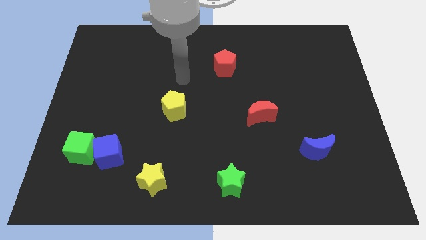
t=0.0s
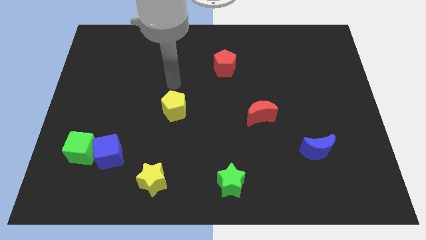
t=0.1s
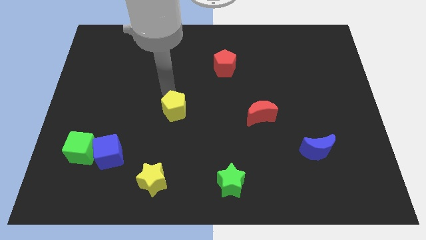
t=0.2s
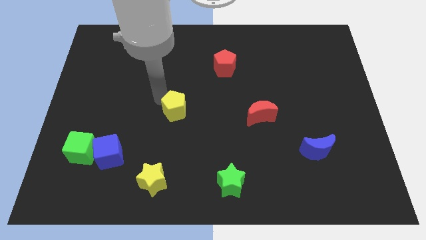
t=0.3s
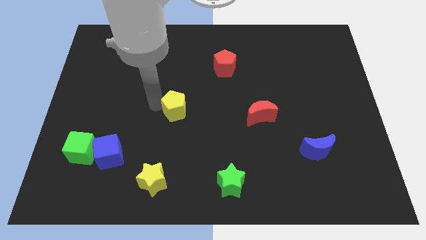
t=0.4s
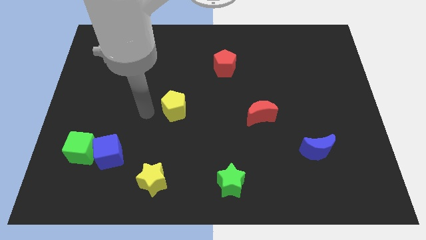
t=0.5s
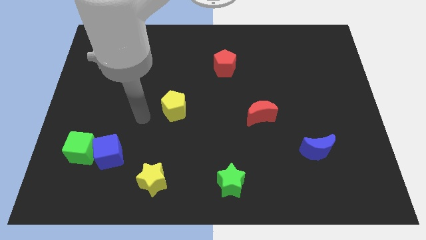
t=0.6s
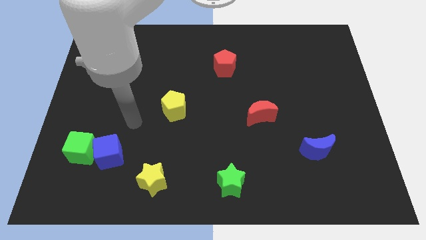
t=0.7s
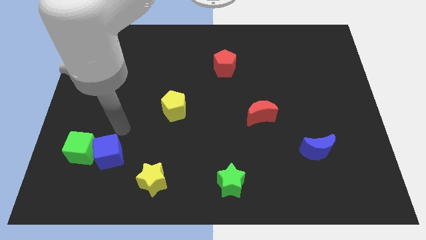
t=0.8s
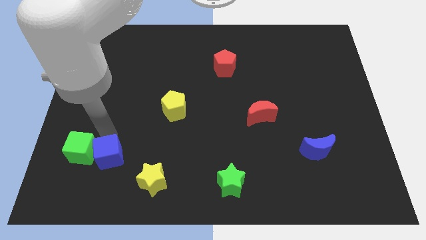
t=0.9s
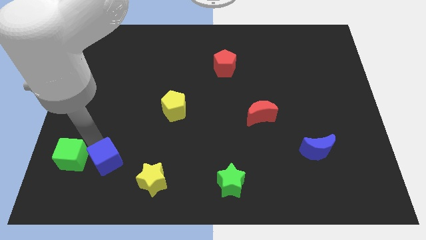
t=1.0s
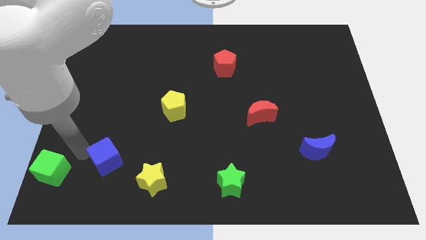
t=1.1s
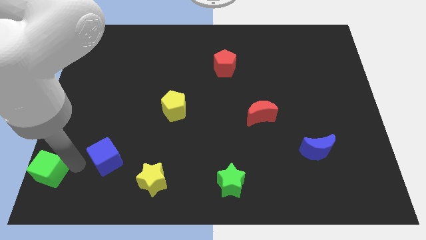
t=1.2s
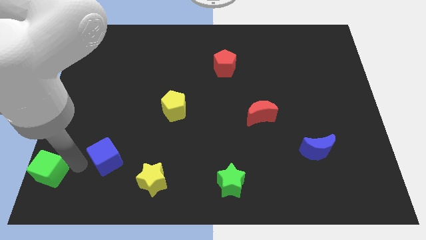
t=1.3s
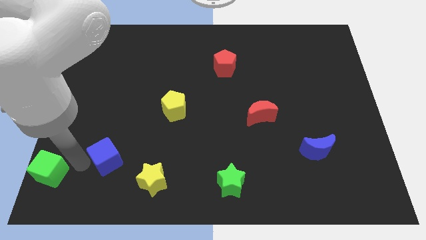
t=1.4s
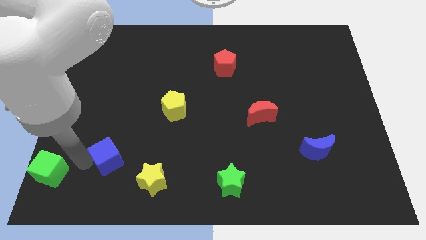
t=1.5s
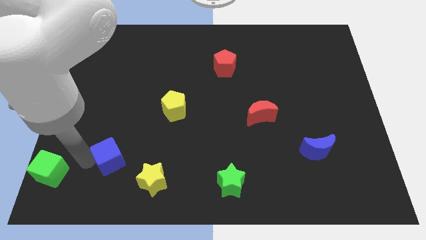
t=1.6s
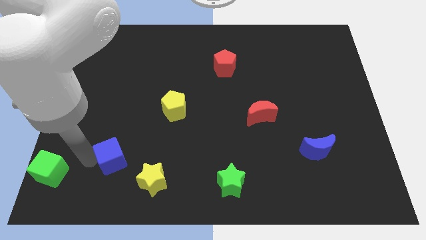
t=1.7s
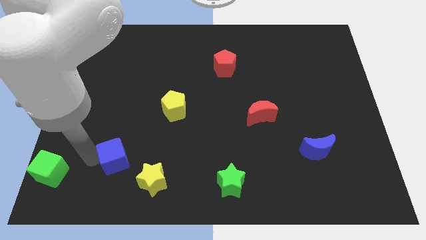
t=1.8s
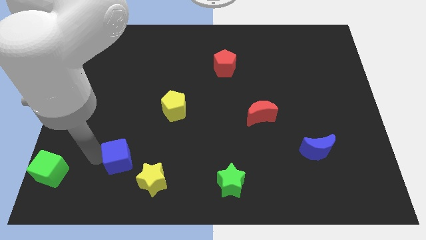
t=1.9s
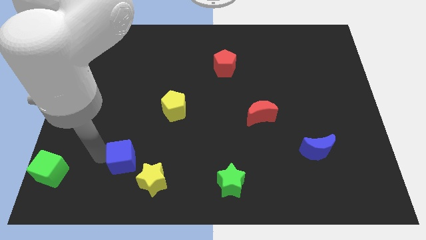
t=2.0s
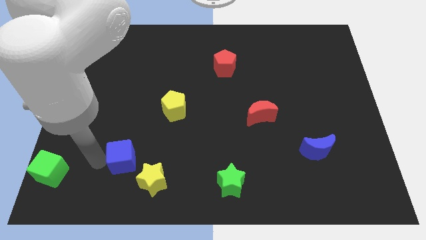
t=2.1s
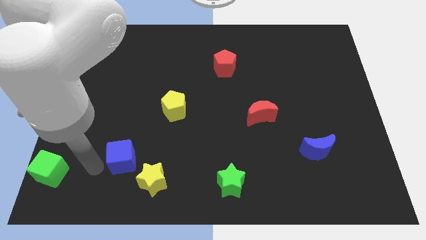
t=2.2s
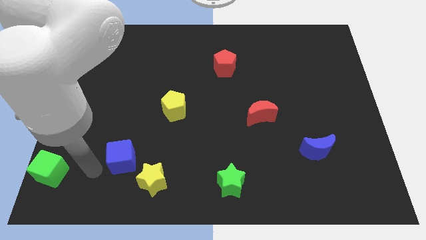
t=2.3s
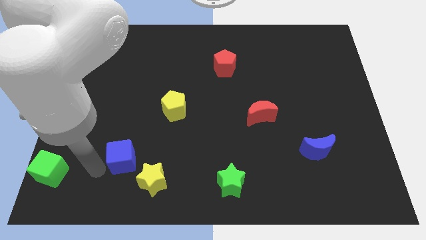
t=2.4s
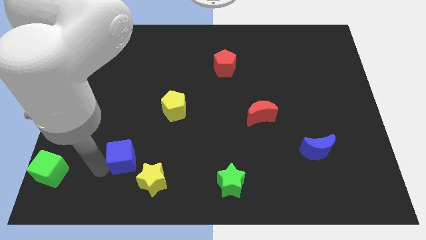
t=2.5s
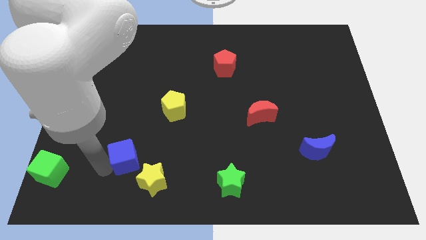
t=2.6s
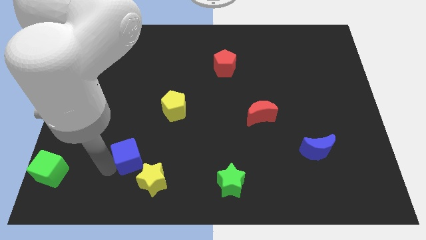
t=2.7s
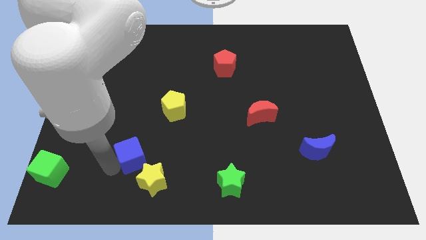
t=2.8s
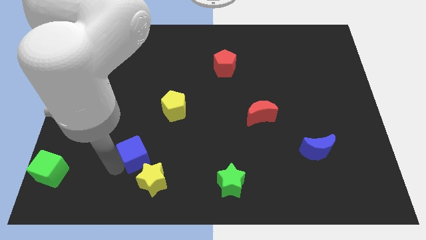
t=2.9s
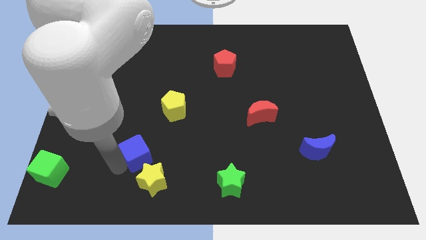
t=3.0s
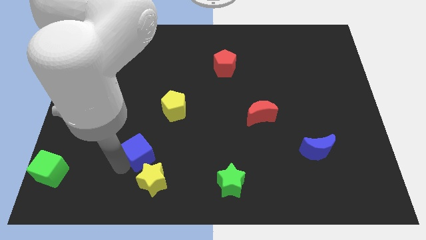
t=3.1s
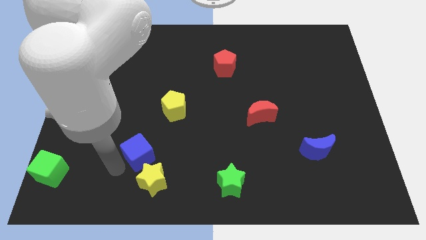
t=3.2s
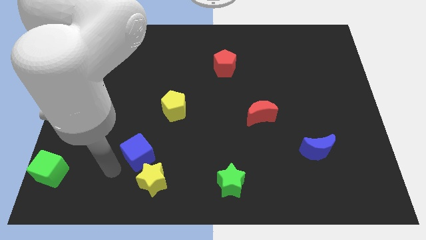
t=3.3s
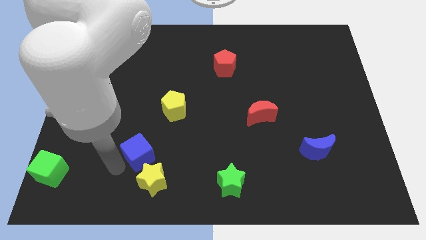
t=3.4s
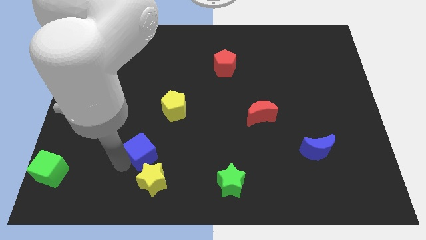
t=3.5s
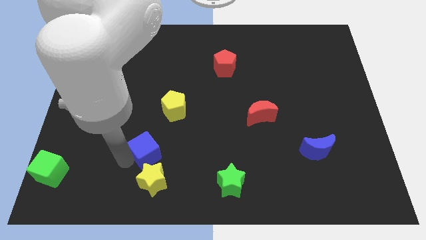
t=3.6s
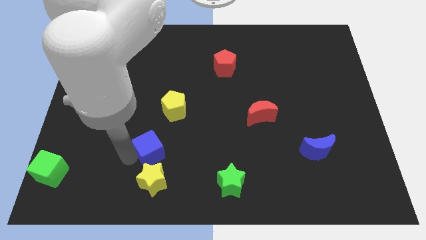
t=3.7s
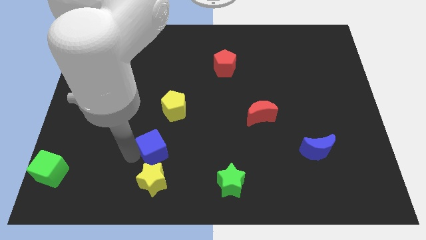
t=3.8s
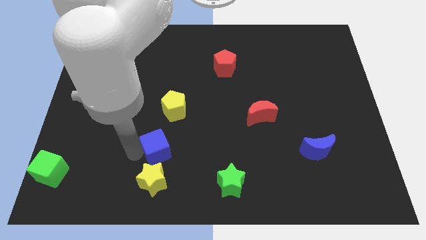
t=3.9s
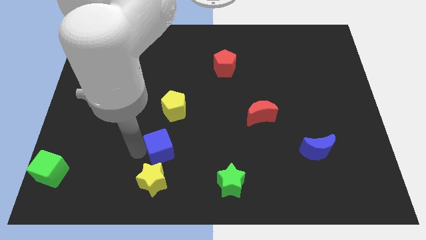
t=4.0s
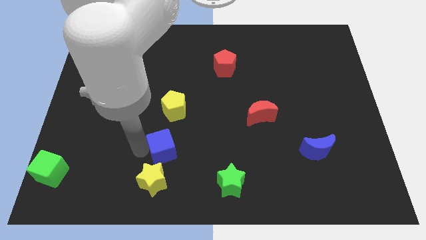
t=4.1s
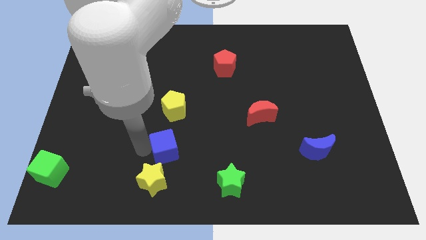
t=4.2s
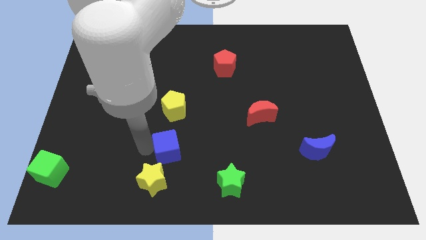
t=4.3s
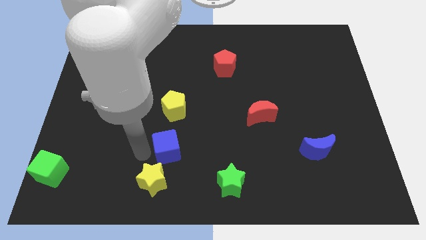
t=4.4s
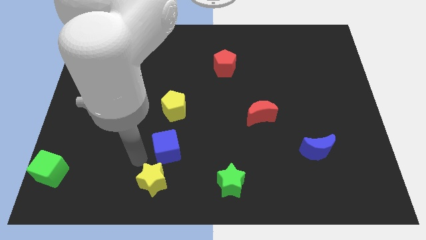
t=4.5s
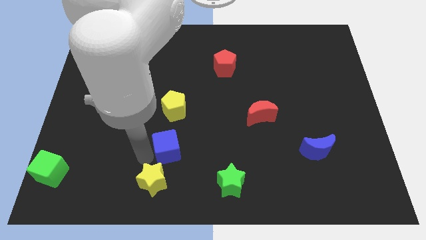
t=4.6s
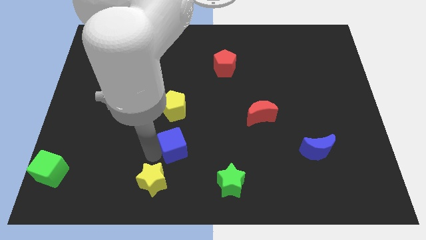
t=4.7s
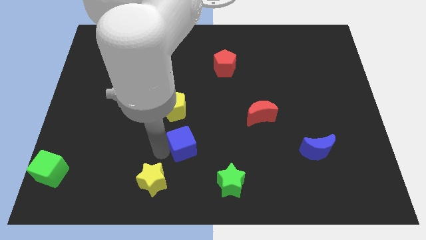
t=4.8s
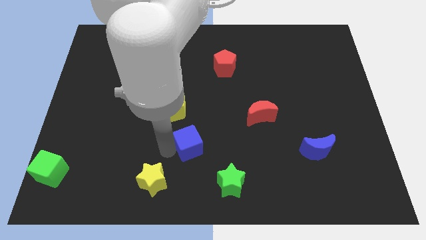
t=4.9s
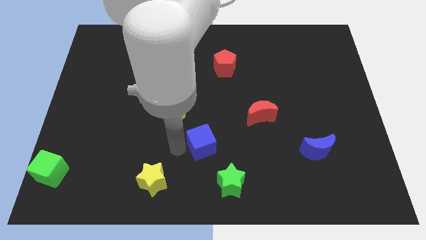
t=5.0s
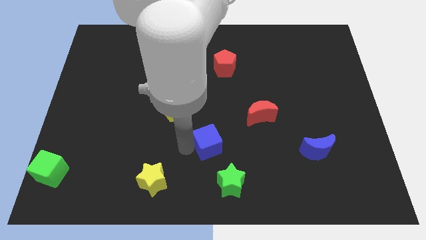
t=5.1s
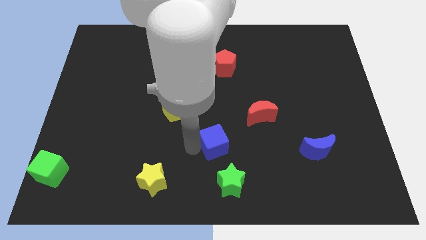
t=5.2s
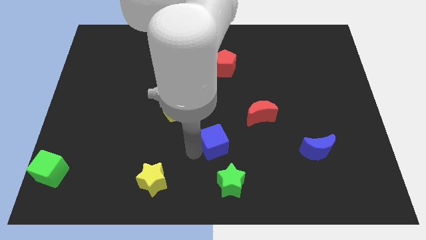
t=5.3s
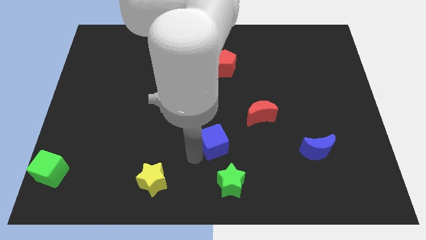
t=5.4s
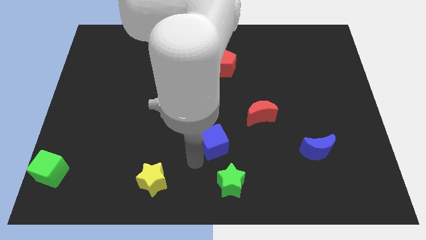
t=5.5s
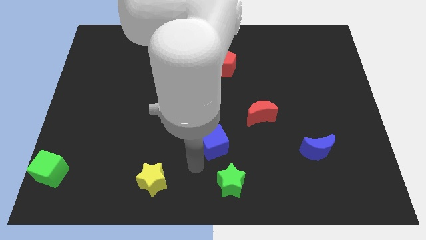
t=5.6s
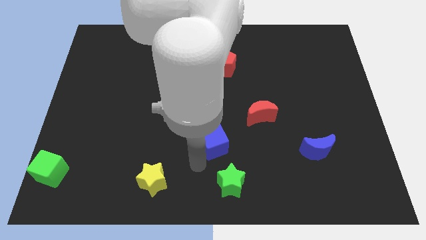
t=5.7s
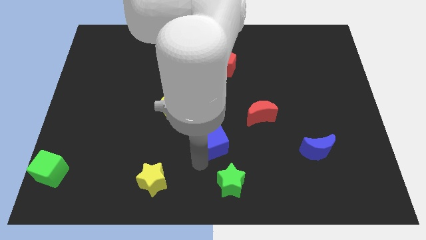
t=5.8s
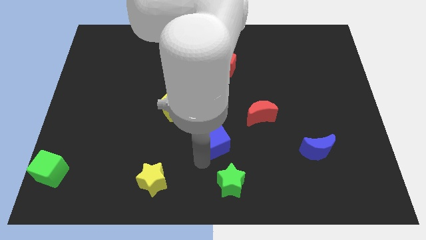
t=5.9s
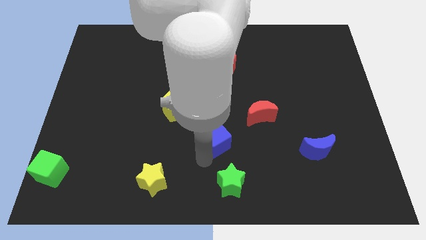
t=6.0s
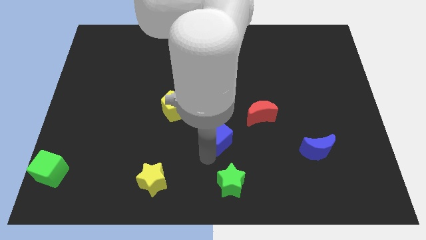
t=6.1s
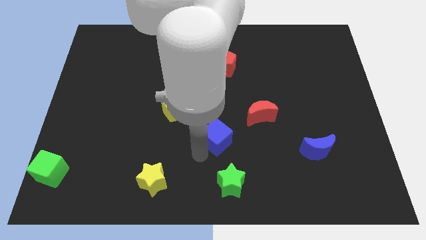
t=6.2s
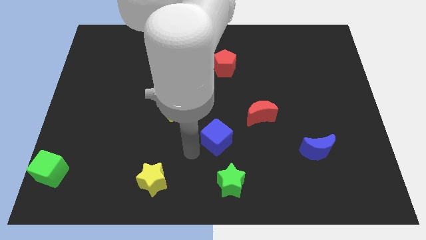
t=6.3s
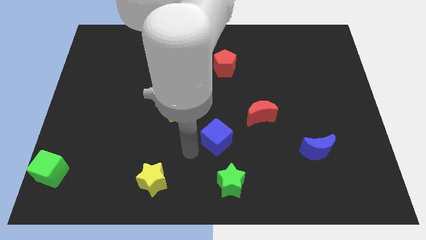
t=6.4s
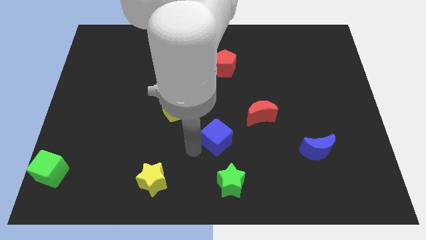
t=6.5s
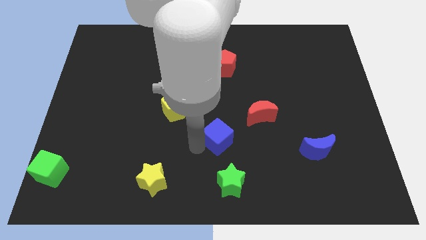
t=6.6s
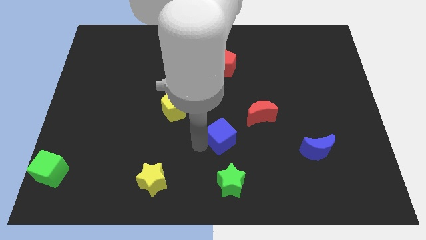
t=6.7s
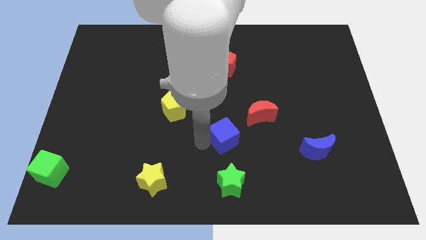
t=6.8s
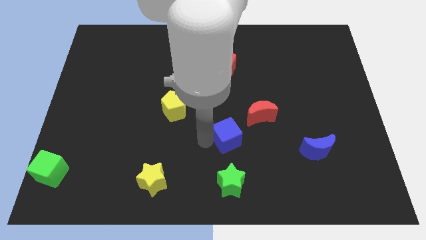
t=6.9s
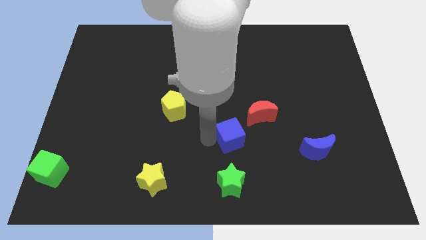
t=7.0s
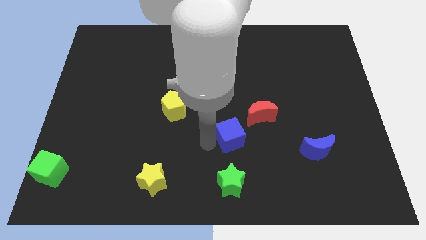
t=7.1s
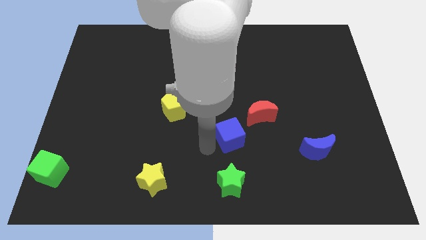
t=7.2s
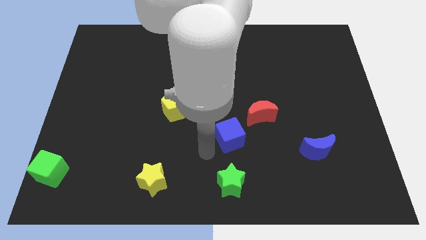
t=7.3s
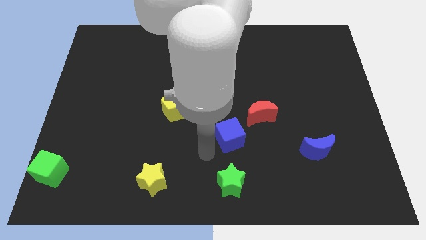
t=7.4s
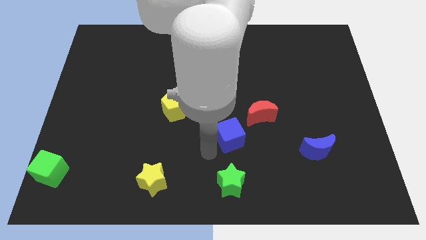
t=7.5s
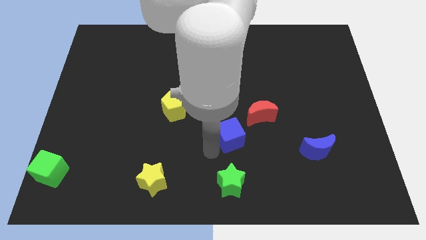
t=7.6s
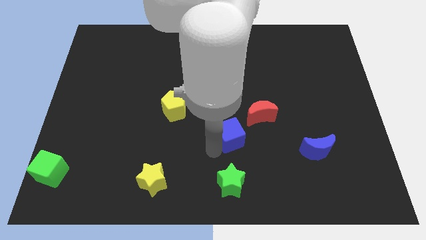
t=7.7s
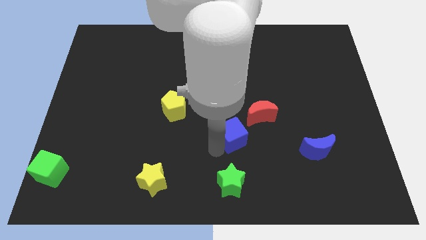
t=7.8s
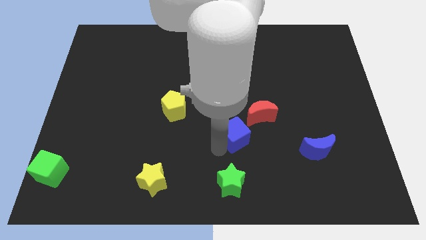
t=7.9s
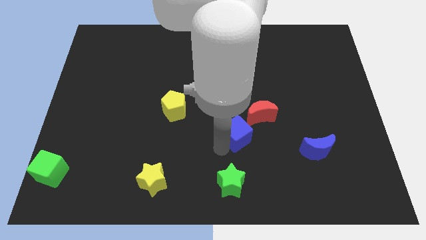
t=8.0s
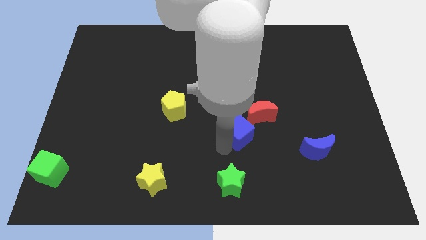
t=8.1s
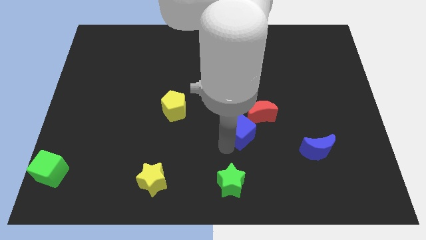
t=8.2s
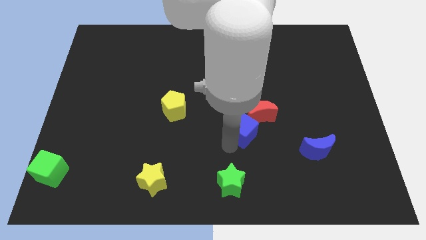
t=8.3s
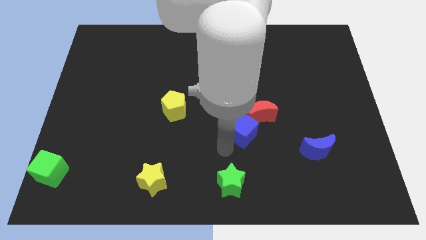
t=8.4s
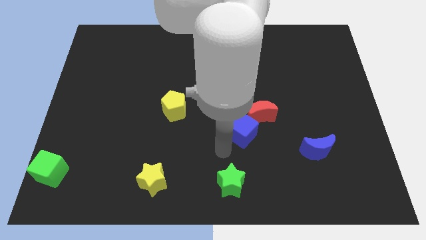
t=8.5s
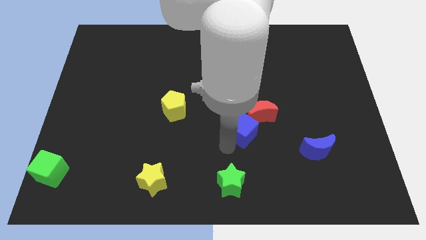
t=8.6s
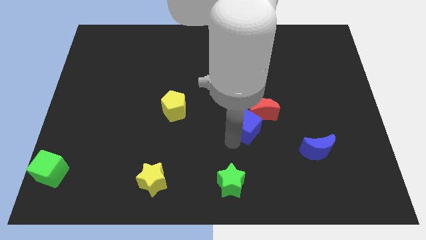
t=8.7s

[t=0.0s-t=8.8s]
push the blue cube close to the red moon
